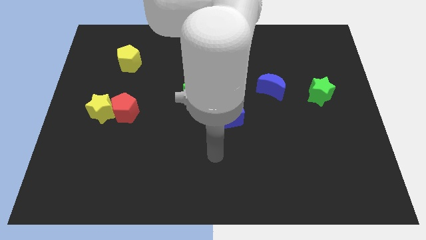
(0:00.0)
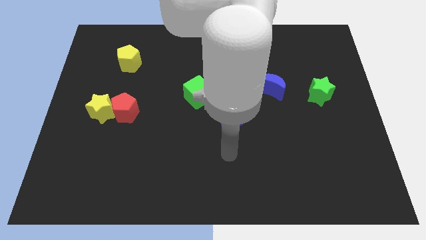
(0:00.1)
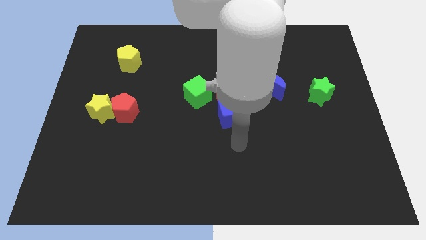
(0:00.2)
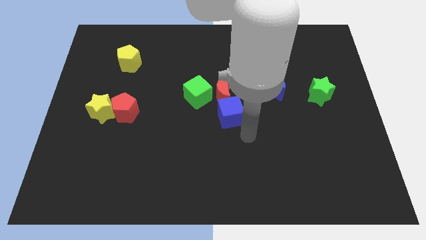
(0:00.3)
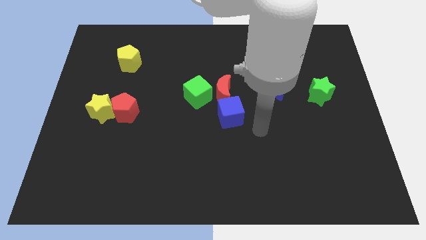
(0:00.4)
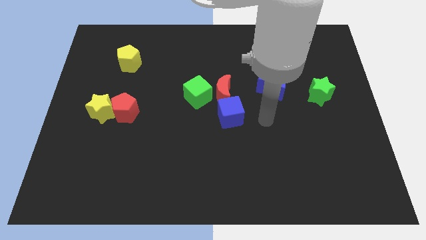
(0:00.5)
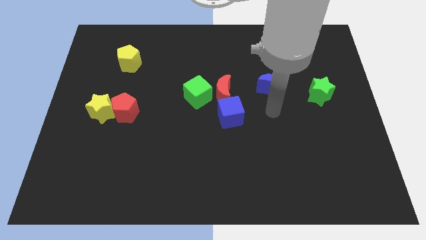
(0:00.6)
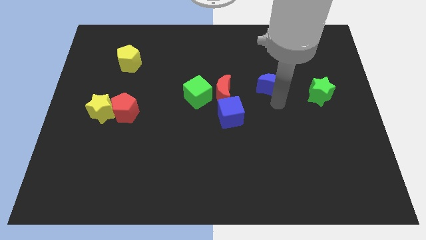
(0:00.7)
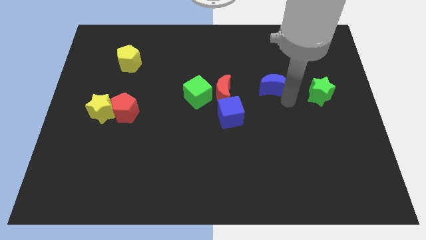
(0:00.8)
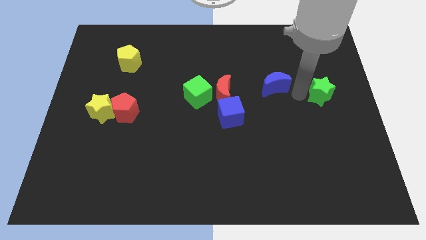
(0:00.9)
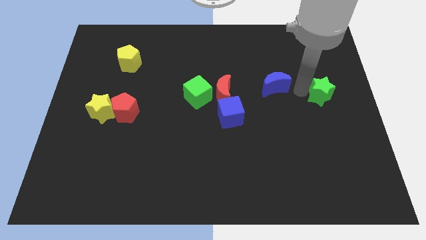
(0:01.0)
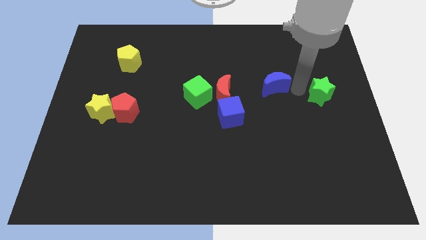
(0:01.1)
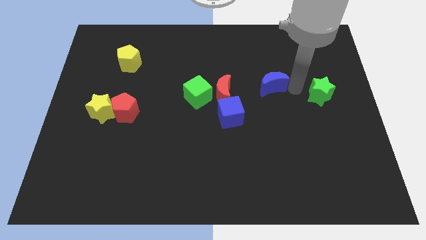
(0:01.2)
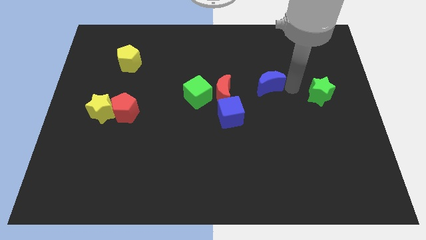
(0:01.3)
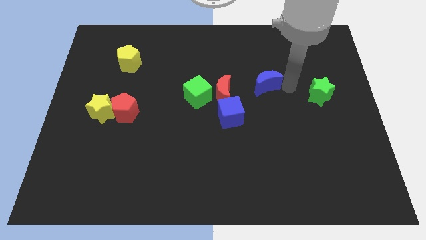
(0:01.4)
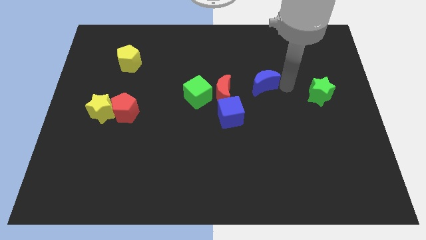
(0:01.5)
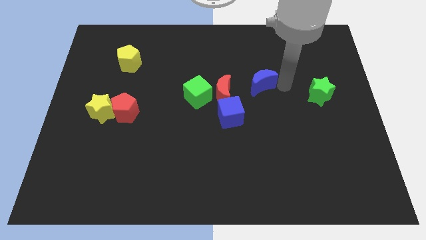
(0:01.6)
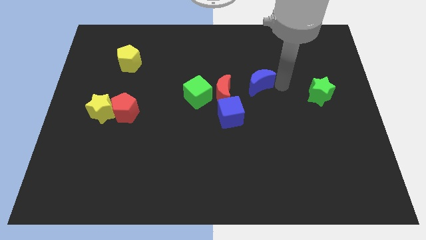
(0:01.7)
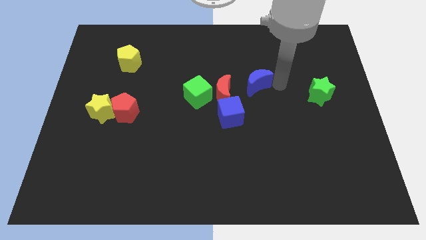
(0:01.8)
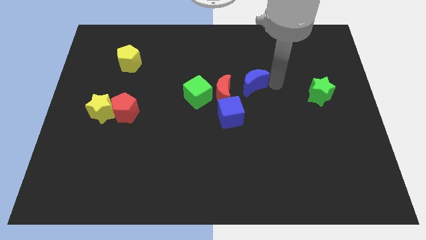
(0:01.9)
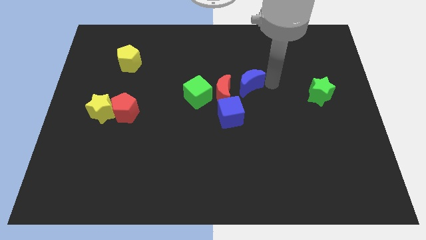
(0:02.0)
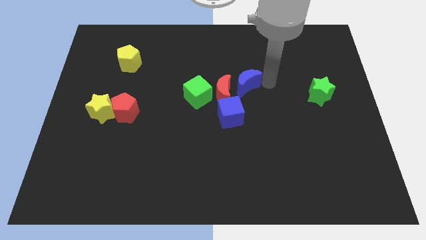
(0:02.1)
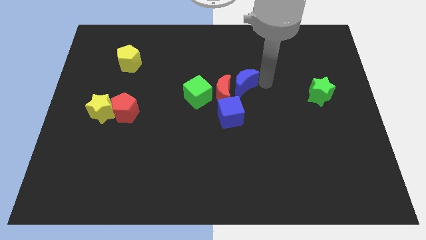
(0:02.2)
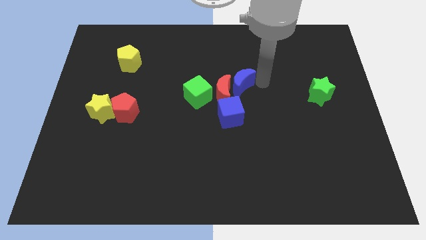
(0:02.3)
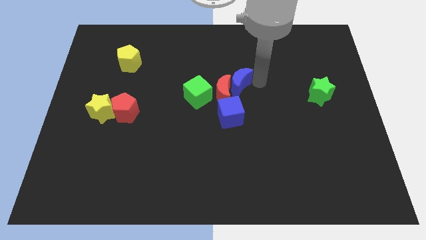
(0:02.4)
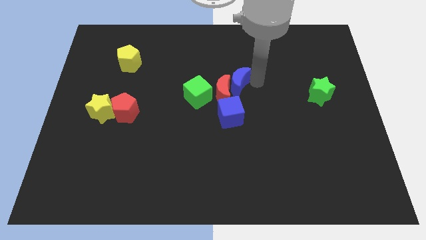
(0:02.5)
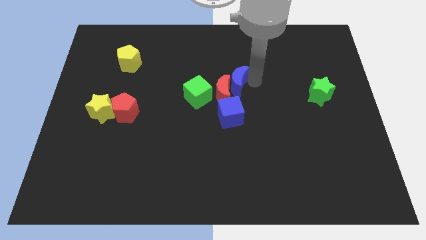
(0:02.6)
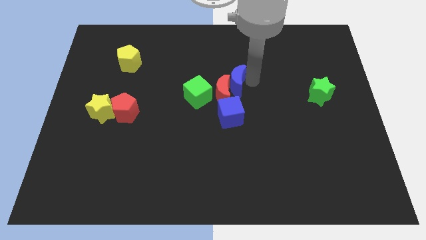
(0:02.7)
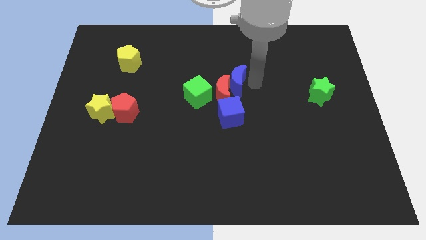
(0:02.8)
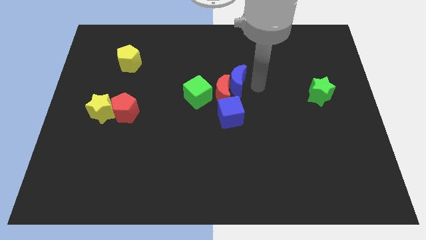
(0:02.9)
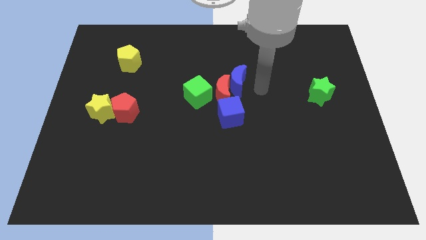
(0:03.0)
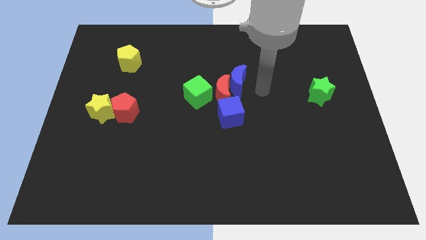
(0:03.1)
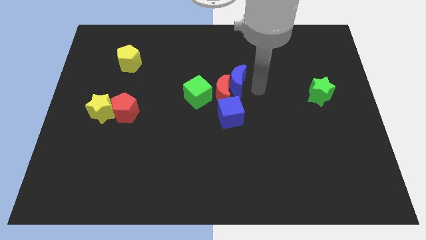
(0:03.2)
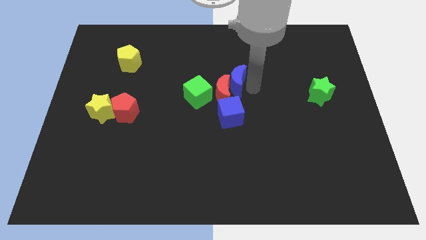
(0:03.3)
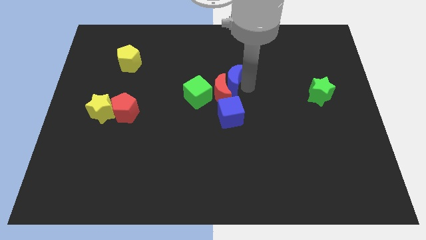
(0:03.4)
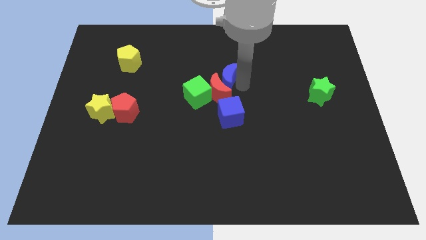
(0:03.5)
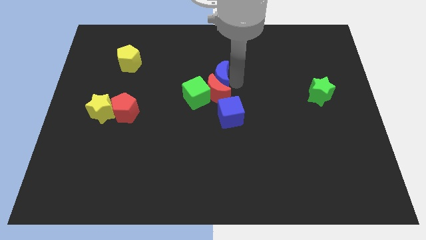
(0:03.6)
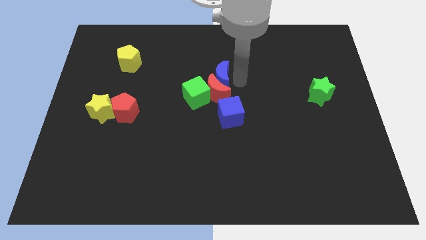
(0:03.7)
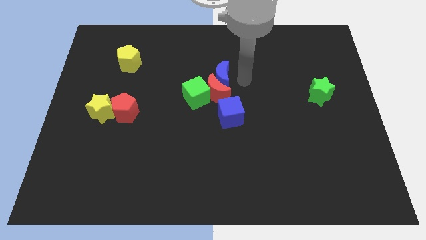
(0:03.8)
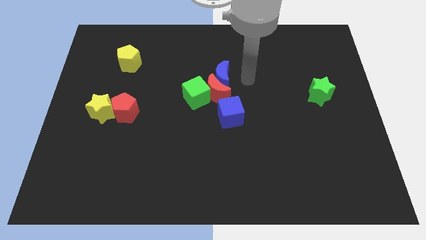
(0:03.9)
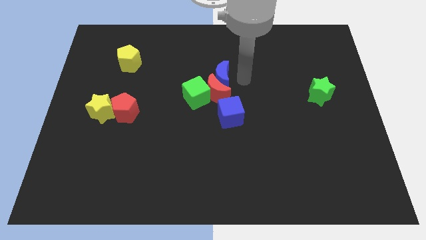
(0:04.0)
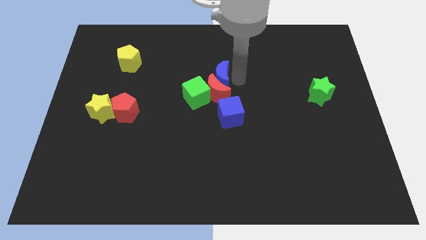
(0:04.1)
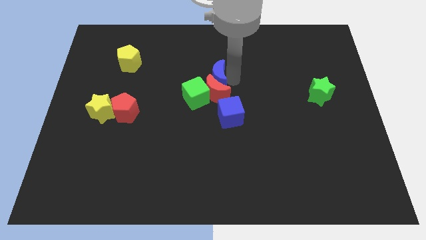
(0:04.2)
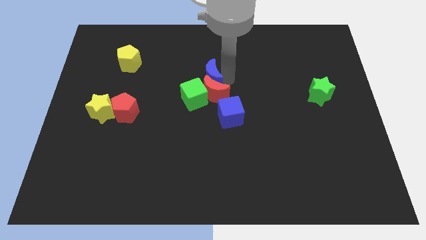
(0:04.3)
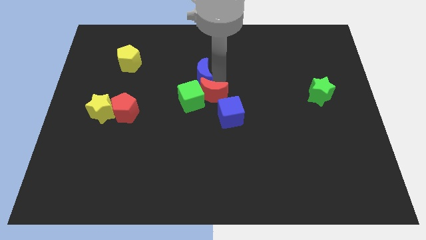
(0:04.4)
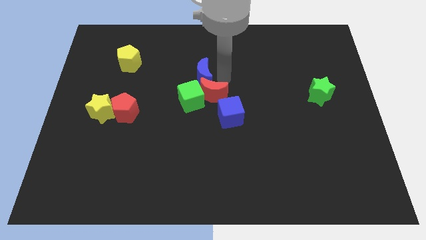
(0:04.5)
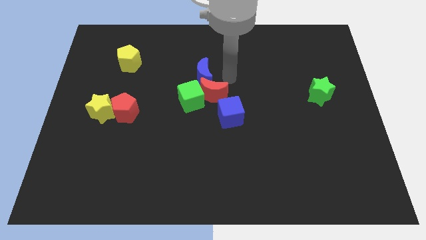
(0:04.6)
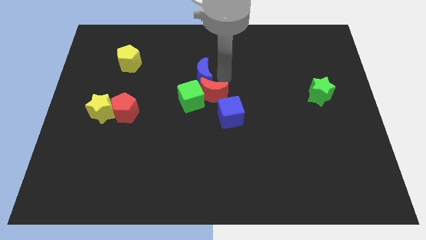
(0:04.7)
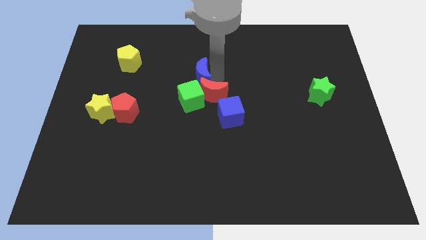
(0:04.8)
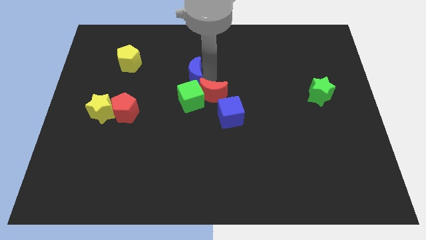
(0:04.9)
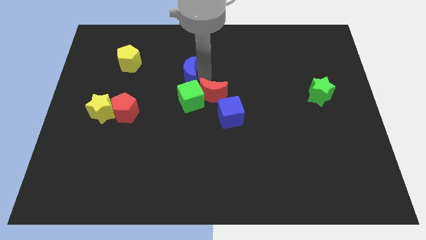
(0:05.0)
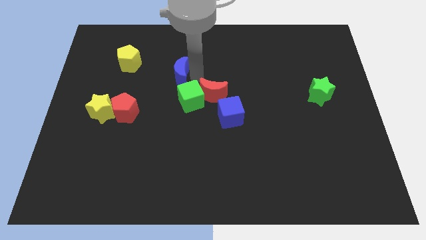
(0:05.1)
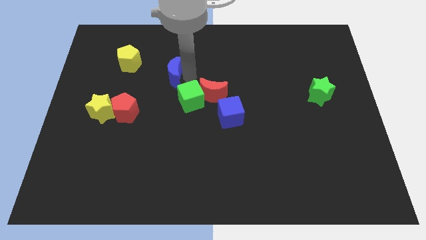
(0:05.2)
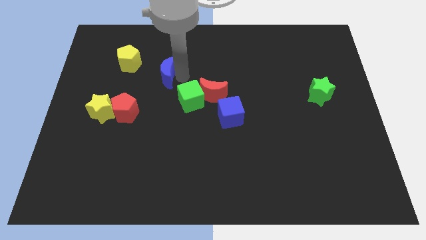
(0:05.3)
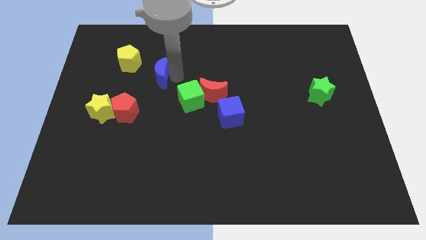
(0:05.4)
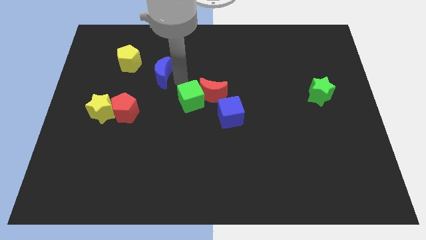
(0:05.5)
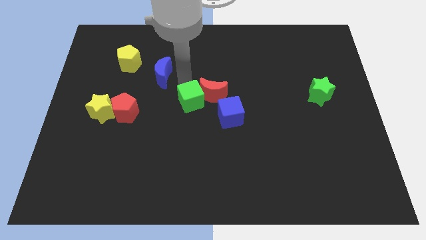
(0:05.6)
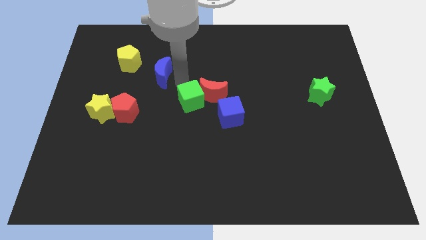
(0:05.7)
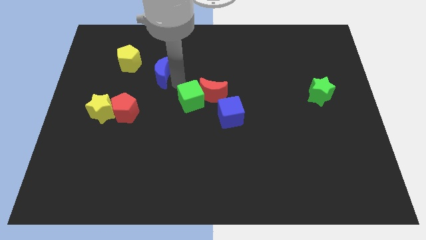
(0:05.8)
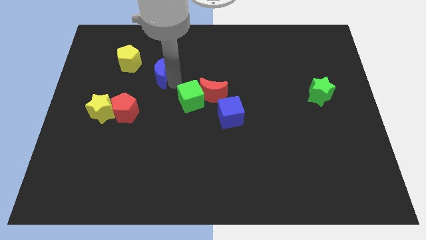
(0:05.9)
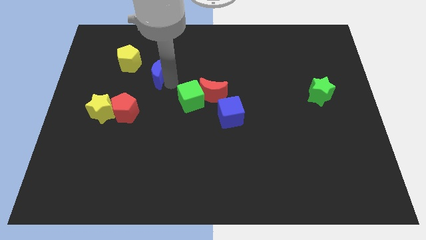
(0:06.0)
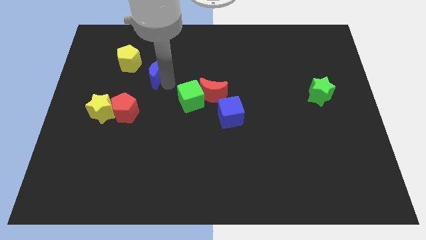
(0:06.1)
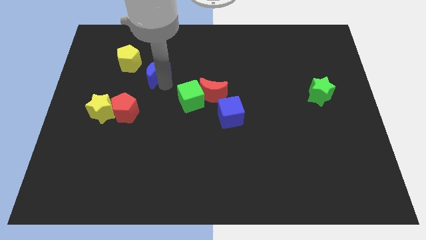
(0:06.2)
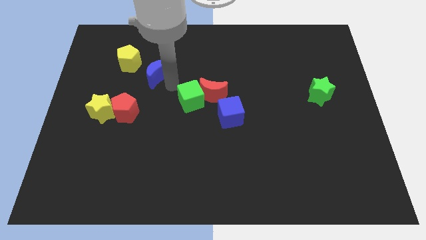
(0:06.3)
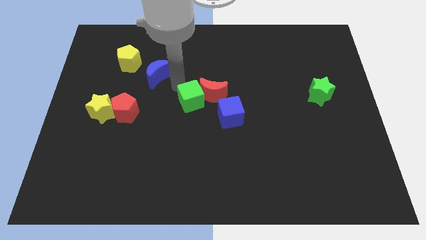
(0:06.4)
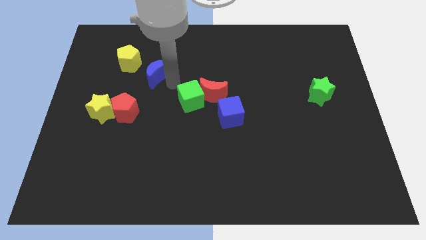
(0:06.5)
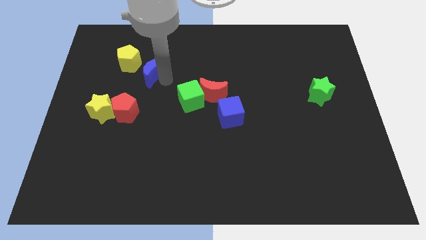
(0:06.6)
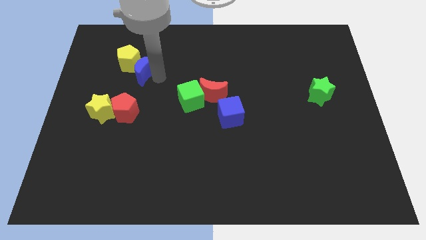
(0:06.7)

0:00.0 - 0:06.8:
push the blue moon next to the yellow pentagon
